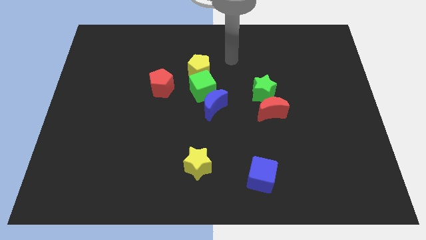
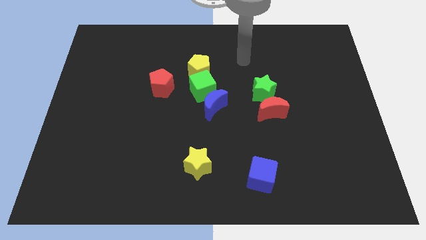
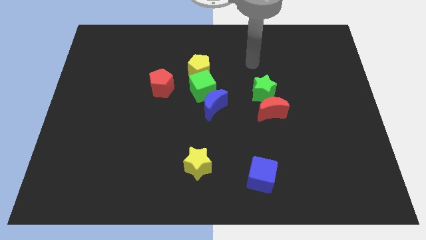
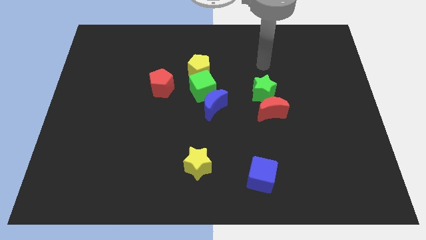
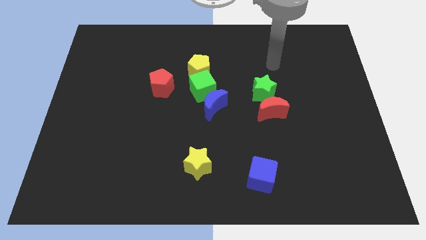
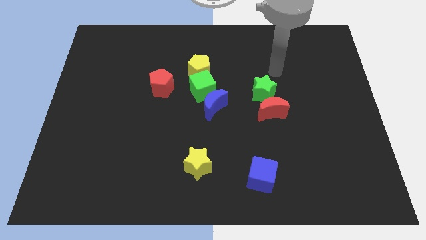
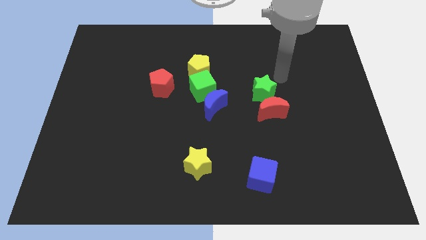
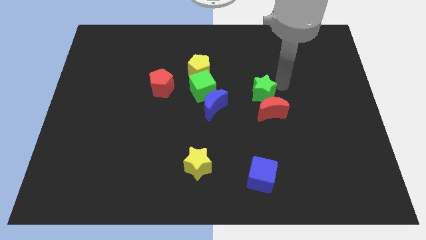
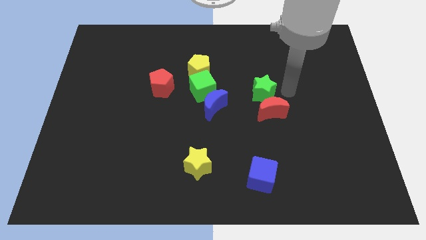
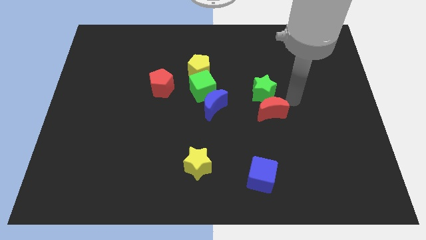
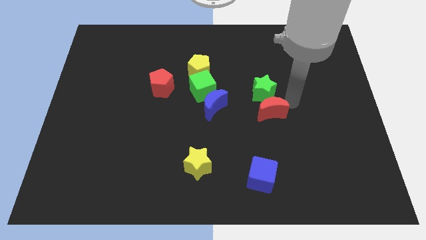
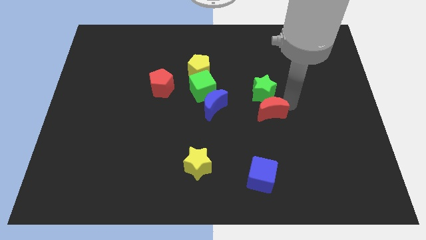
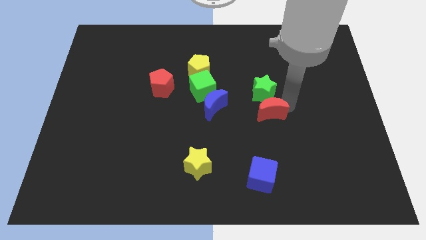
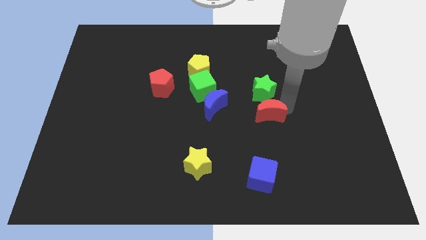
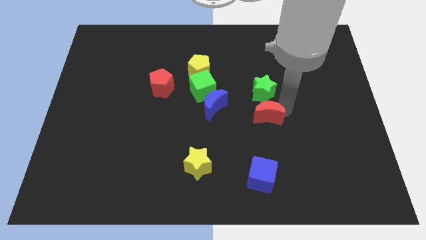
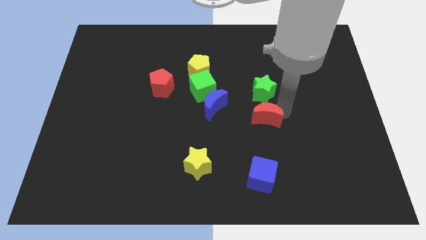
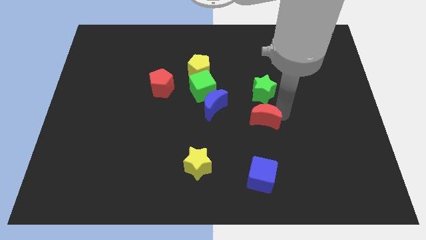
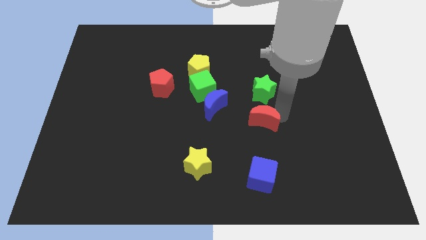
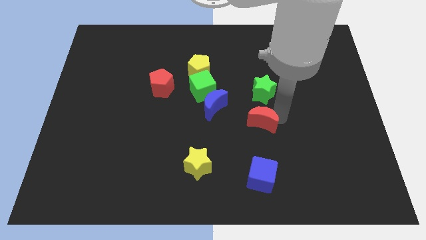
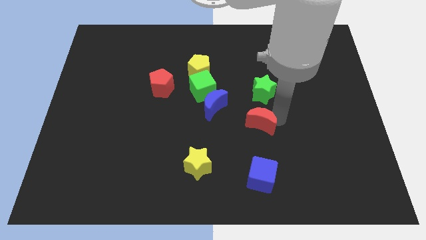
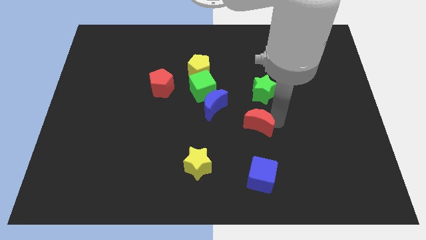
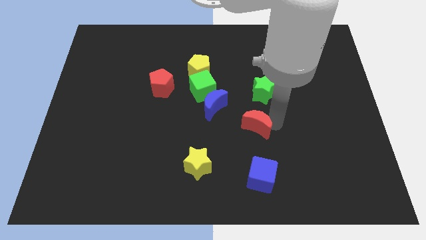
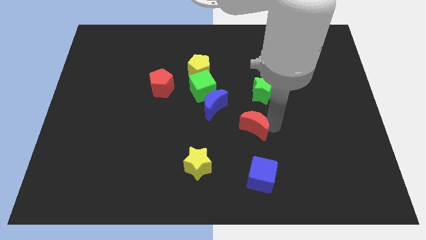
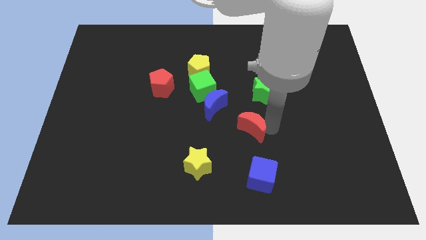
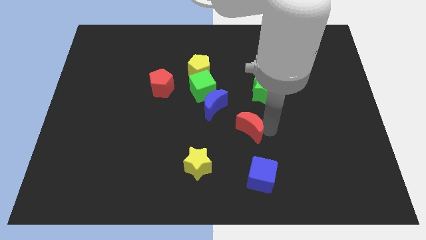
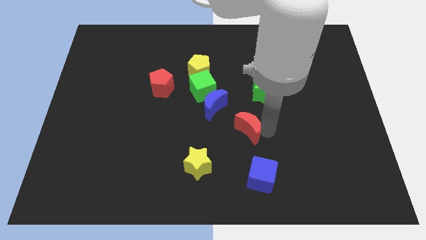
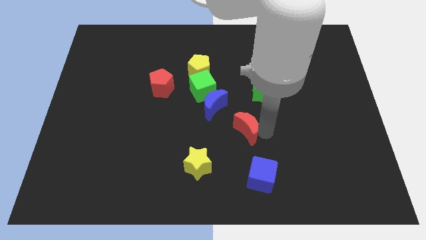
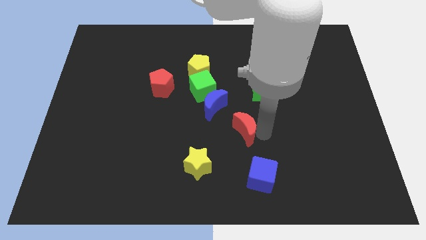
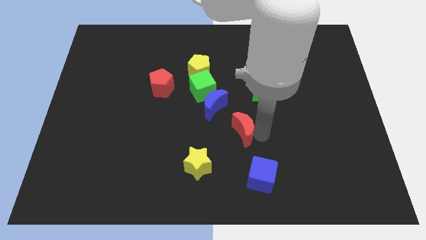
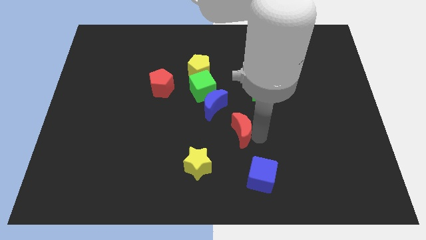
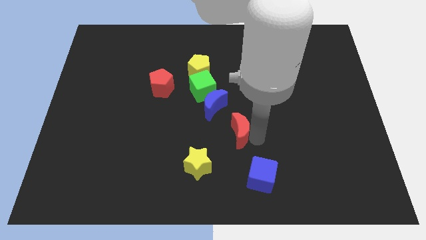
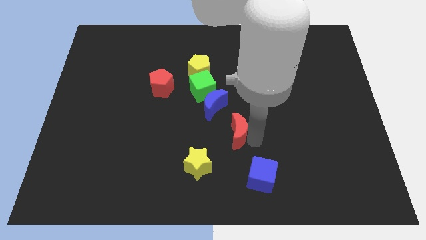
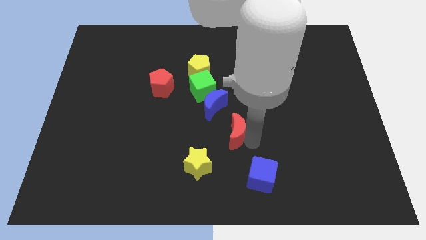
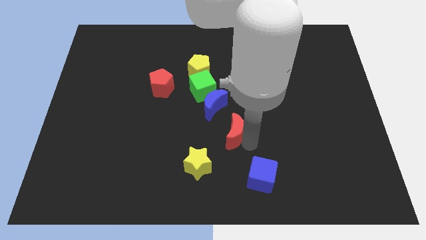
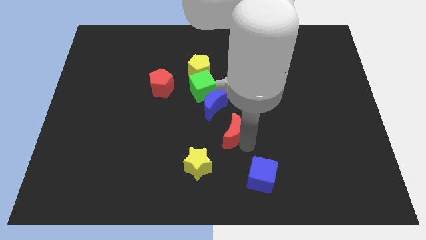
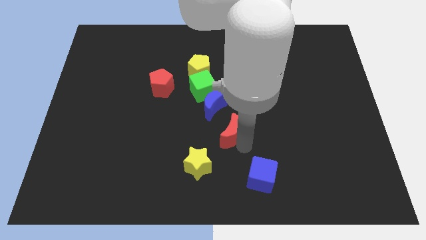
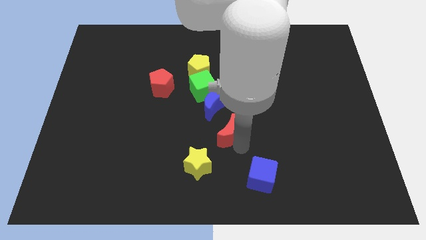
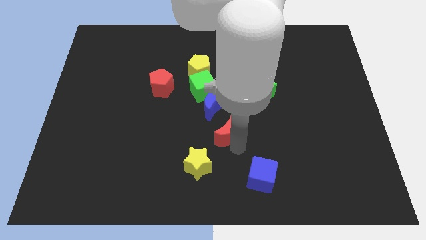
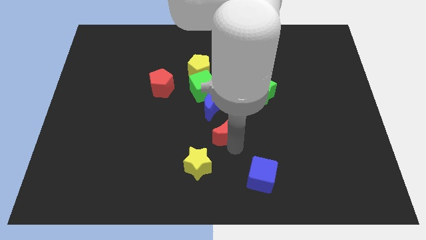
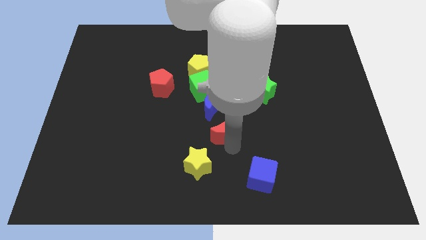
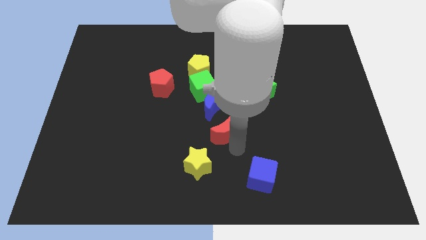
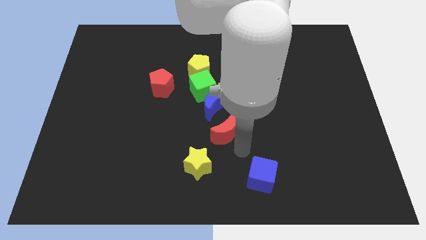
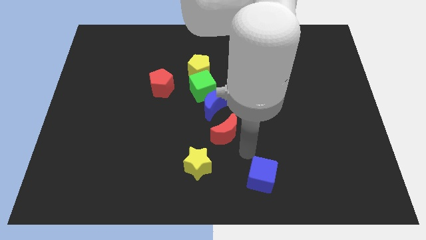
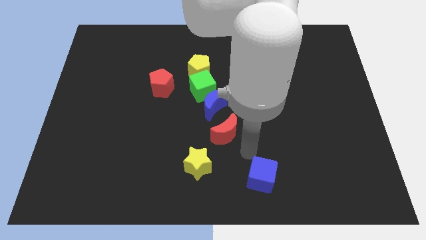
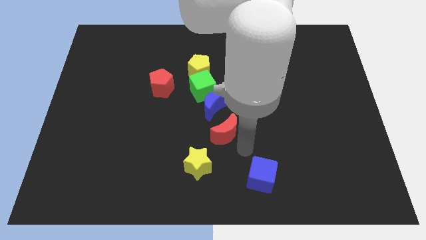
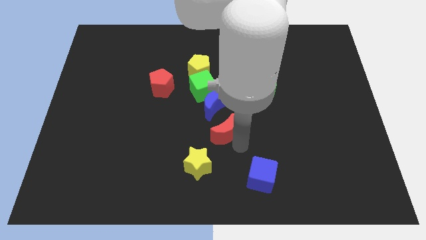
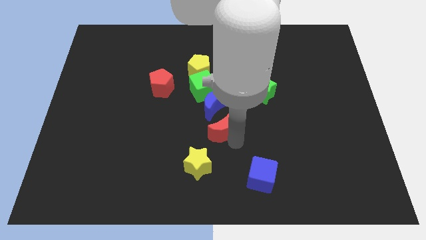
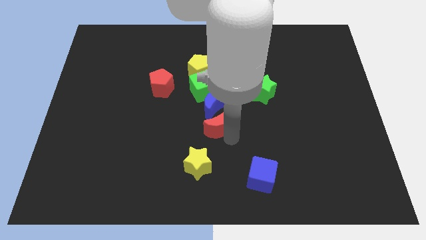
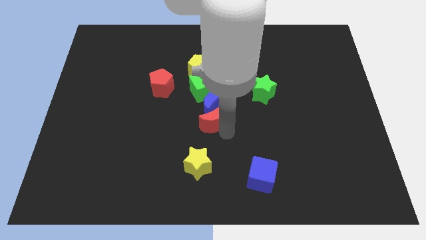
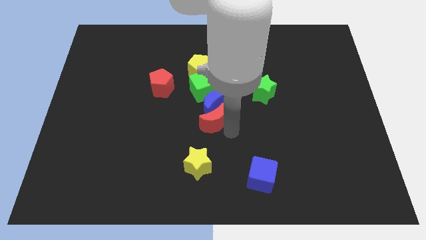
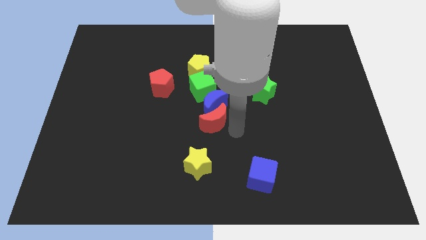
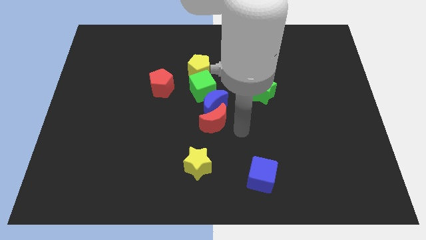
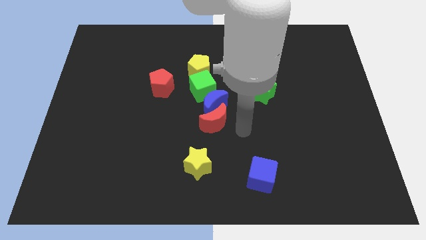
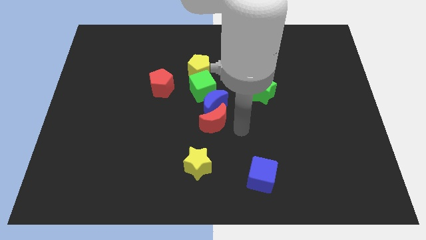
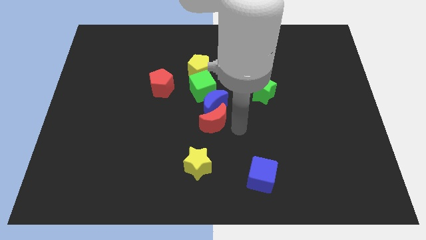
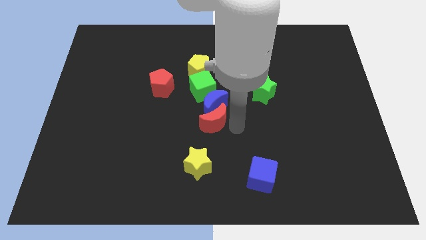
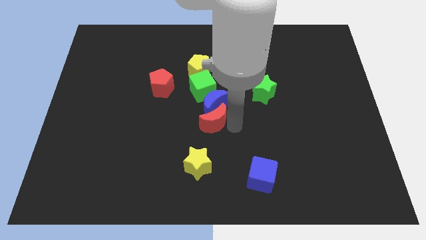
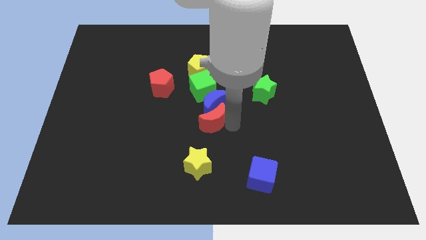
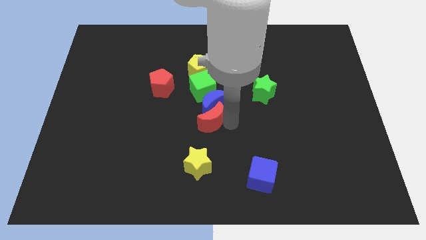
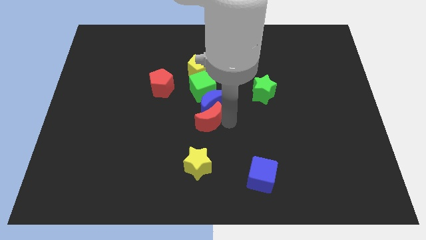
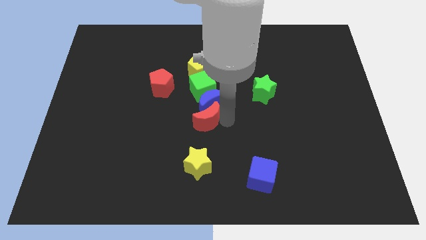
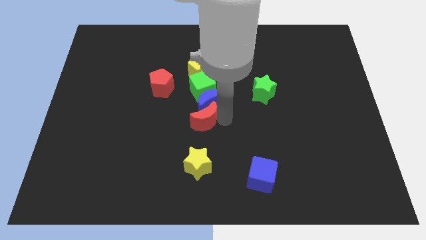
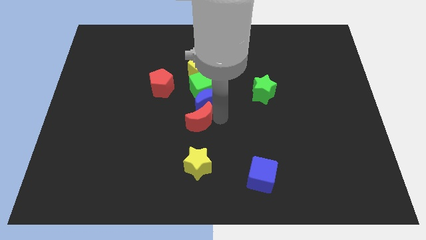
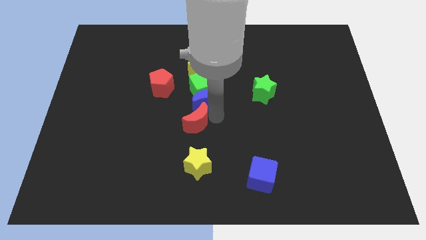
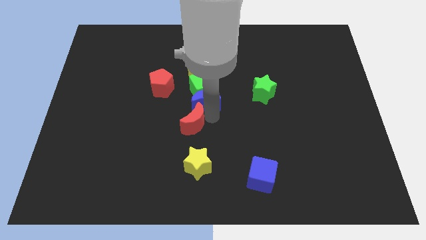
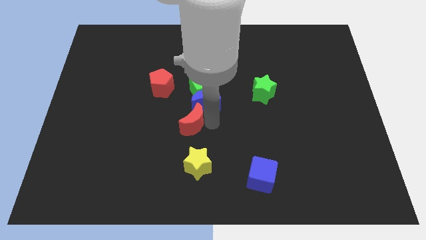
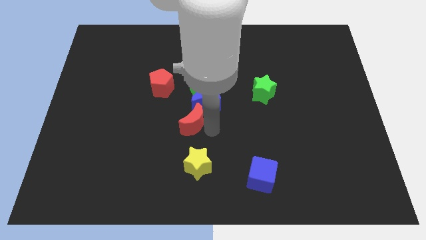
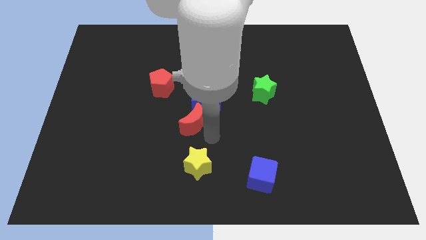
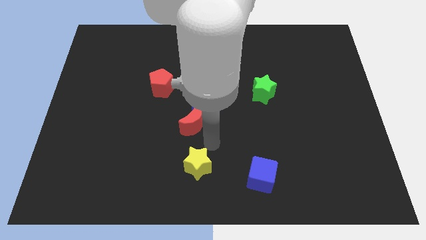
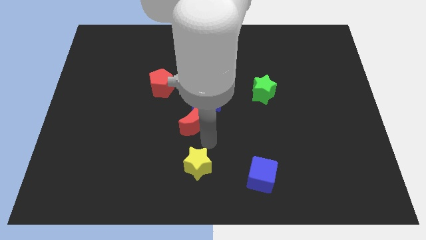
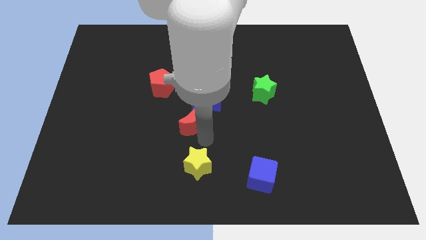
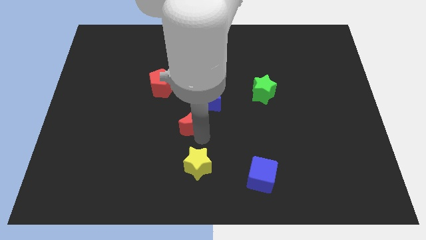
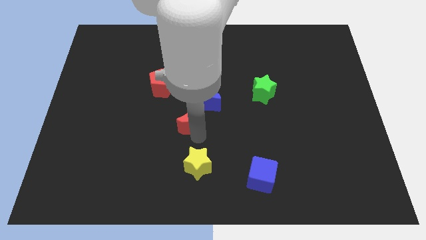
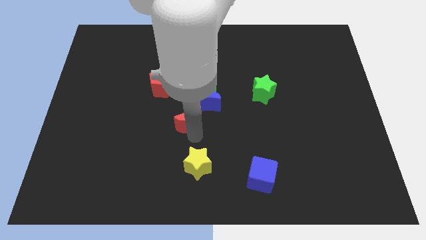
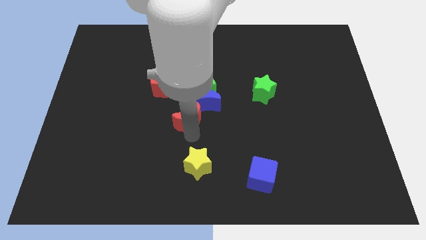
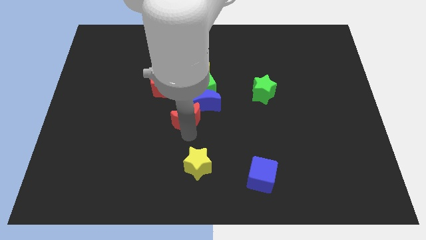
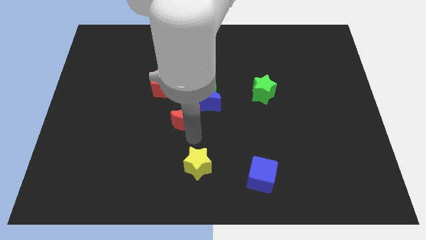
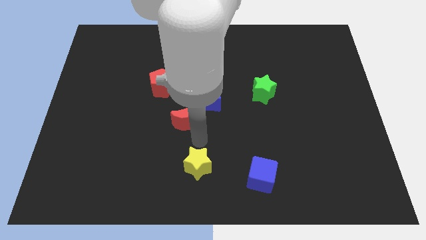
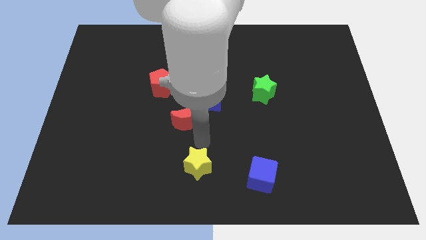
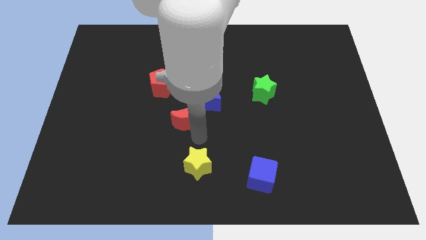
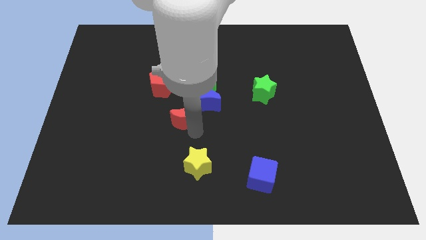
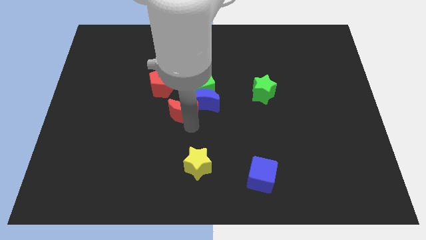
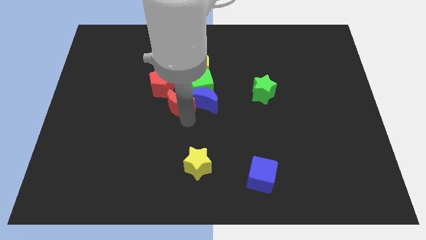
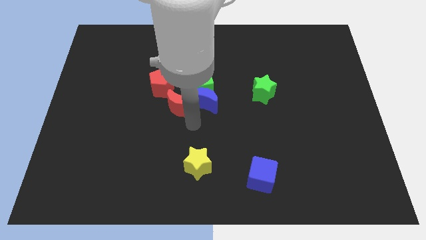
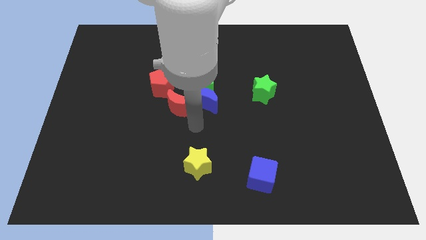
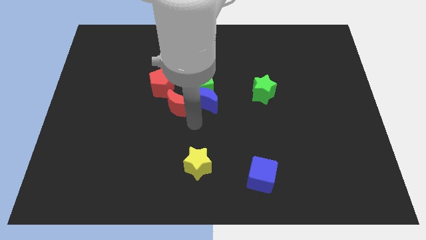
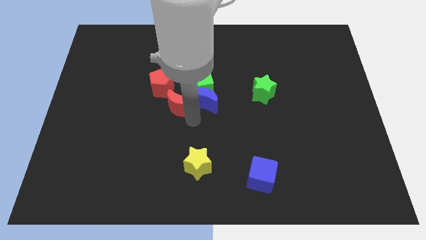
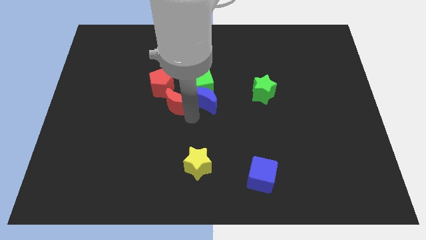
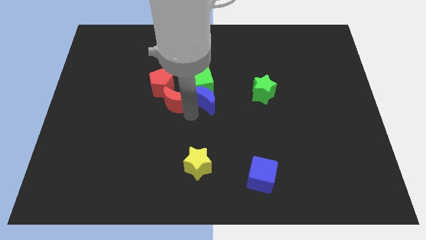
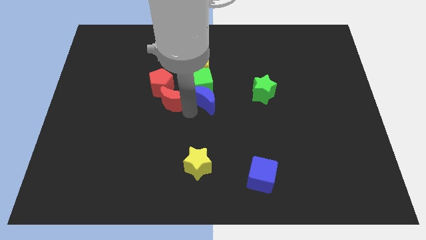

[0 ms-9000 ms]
move the red moon to the red pentagon
